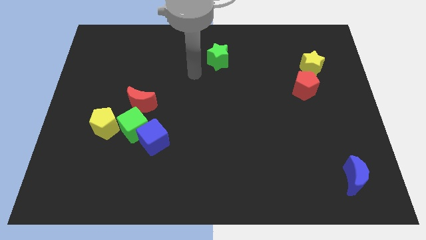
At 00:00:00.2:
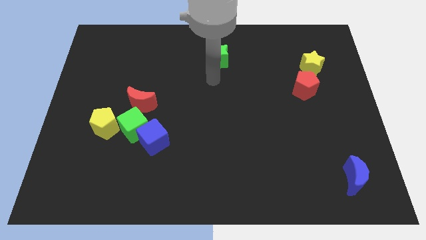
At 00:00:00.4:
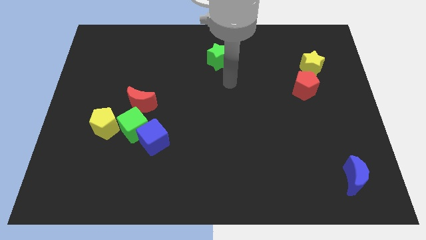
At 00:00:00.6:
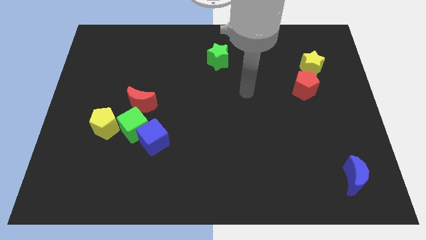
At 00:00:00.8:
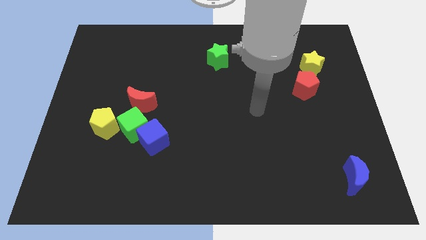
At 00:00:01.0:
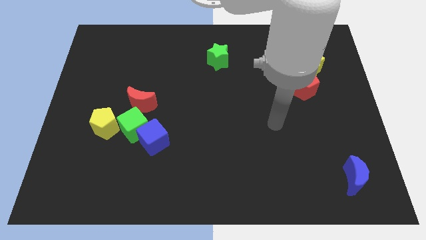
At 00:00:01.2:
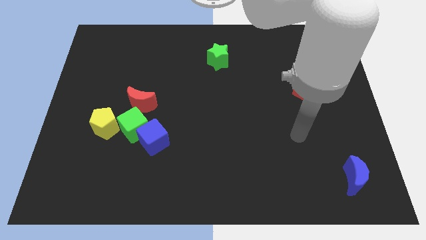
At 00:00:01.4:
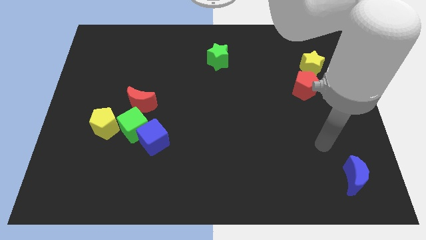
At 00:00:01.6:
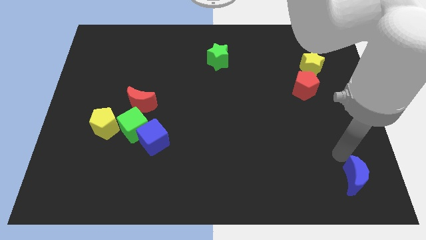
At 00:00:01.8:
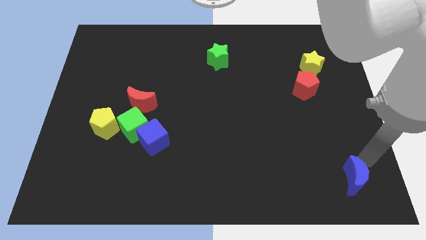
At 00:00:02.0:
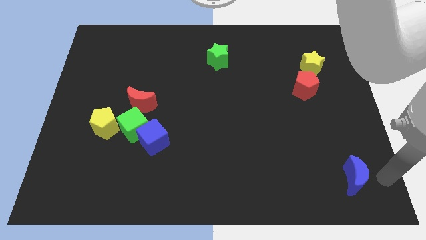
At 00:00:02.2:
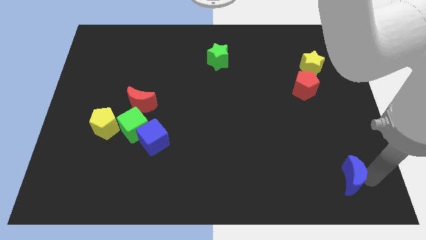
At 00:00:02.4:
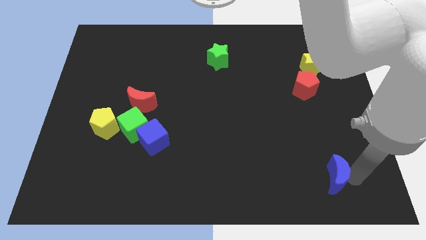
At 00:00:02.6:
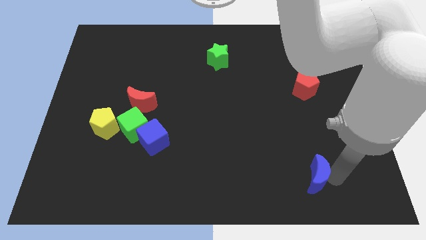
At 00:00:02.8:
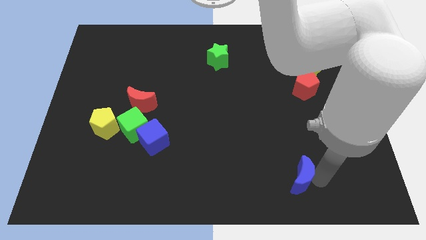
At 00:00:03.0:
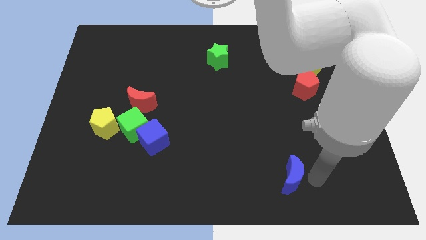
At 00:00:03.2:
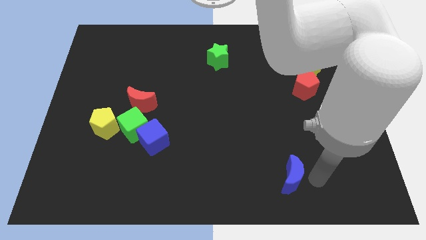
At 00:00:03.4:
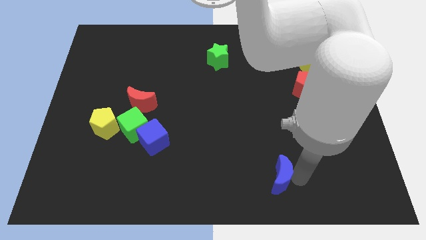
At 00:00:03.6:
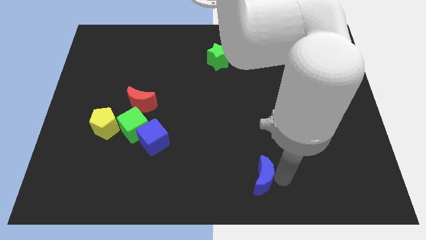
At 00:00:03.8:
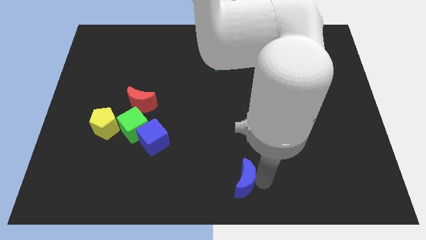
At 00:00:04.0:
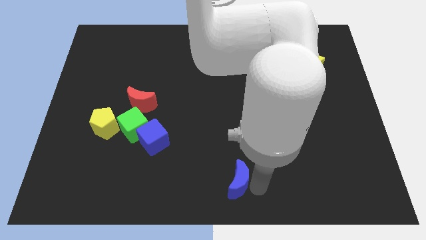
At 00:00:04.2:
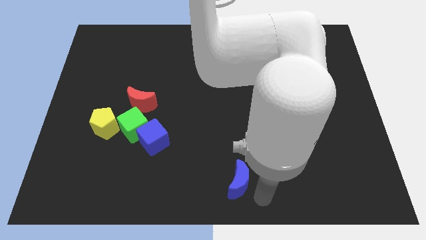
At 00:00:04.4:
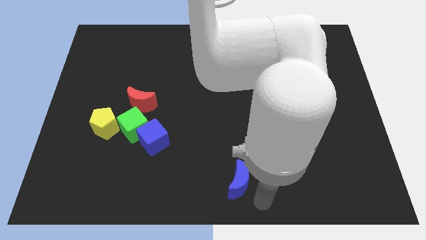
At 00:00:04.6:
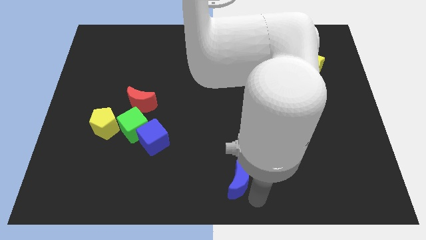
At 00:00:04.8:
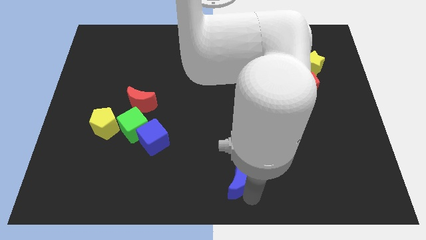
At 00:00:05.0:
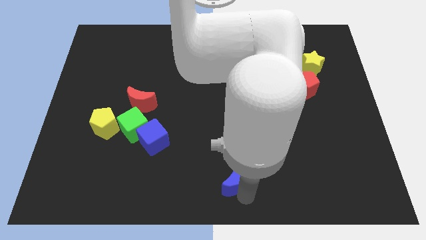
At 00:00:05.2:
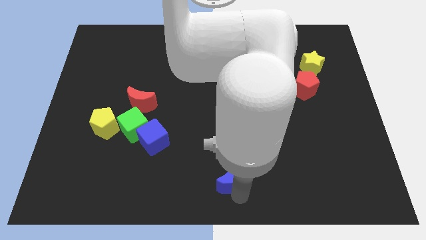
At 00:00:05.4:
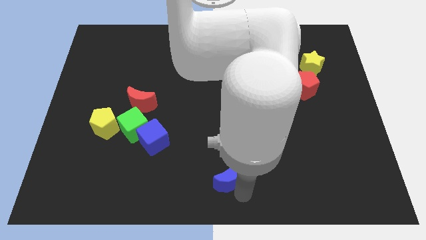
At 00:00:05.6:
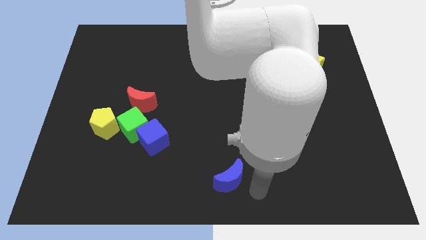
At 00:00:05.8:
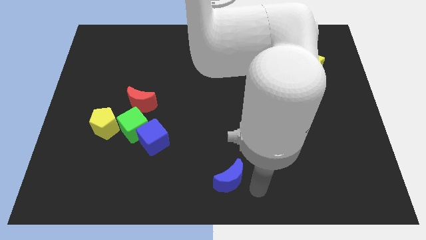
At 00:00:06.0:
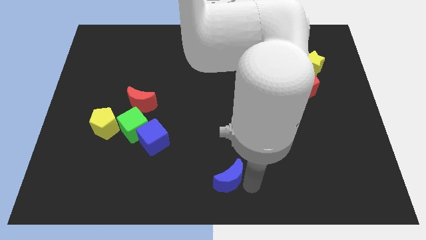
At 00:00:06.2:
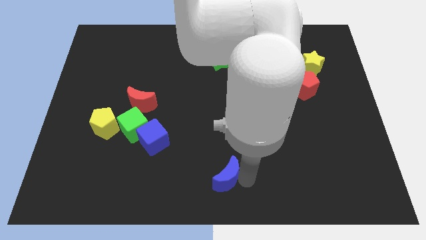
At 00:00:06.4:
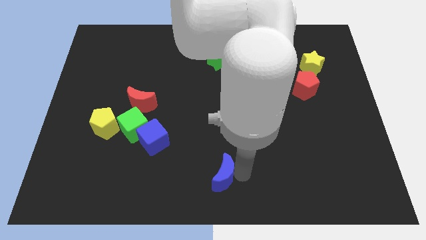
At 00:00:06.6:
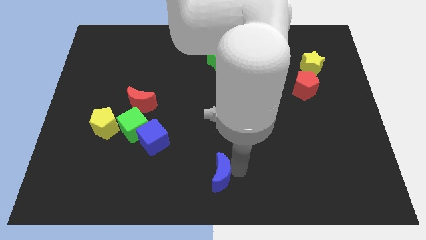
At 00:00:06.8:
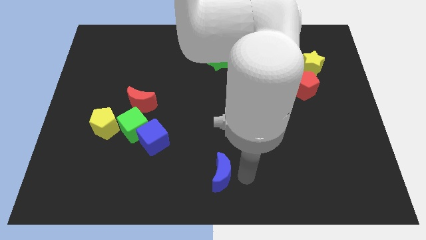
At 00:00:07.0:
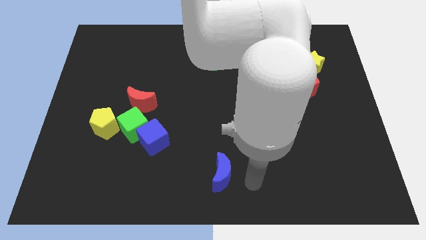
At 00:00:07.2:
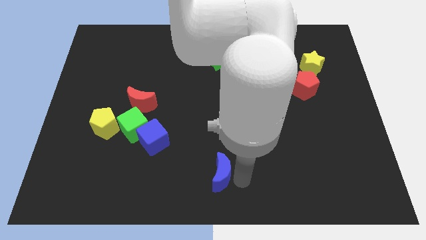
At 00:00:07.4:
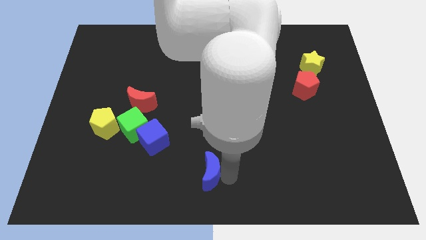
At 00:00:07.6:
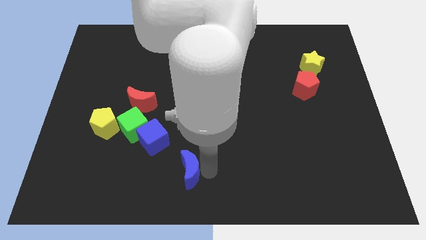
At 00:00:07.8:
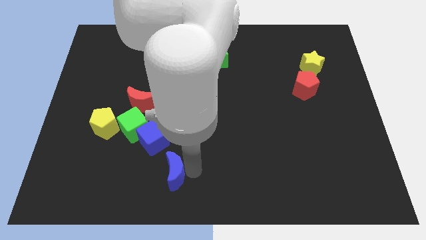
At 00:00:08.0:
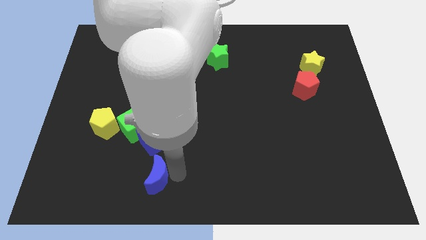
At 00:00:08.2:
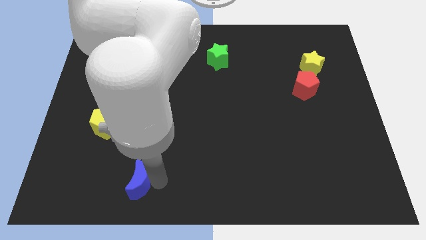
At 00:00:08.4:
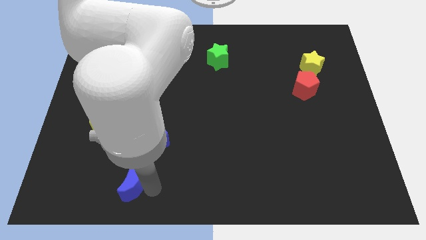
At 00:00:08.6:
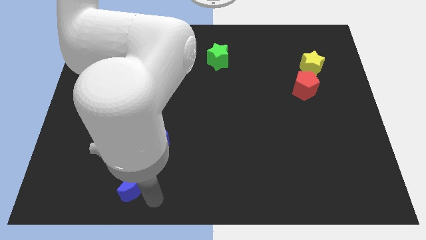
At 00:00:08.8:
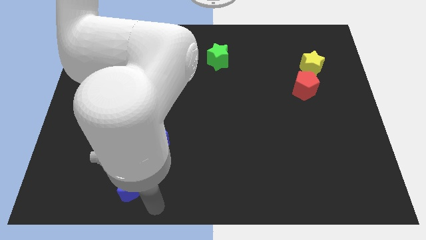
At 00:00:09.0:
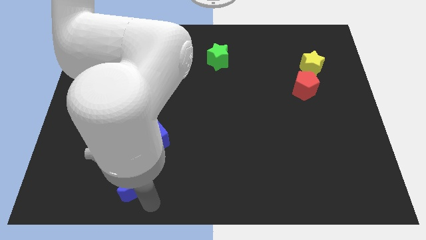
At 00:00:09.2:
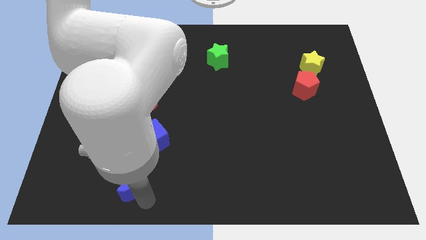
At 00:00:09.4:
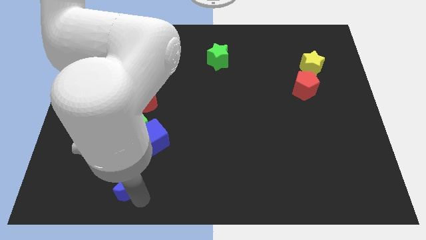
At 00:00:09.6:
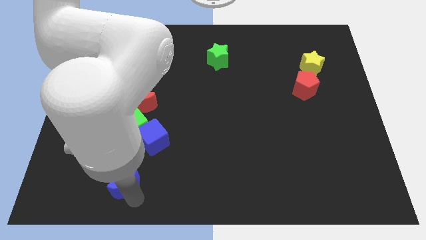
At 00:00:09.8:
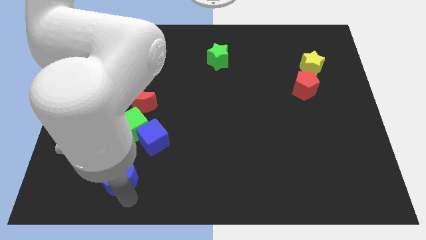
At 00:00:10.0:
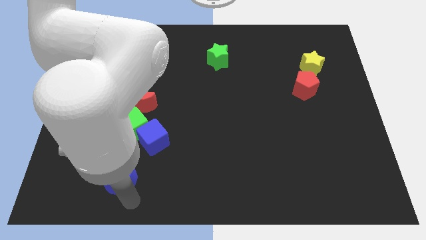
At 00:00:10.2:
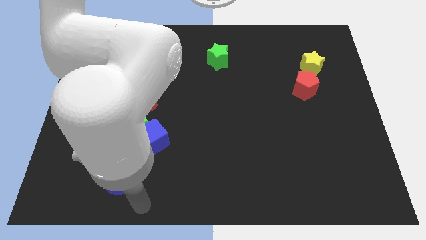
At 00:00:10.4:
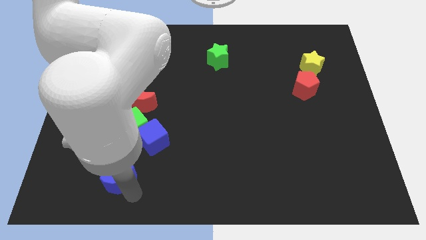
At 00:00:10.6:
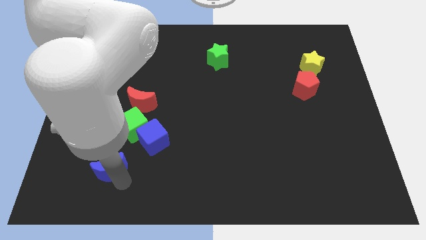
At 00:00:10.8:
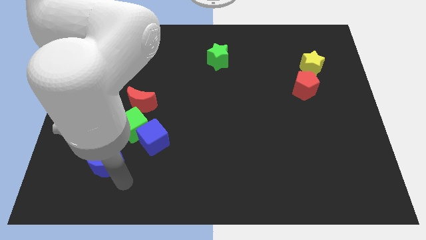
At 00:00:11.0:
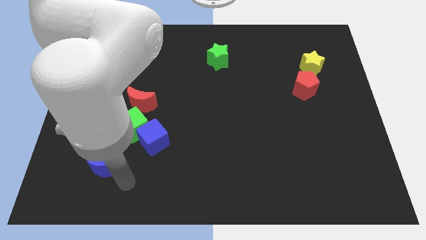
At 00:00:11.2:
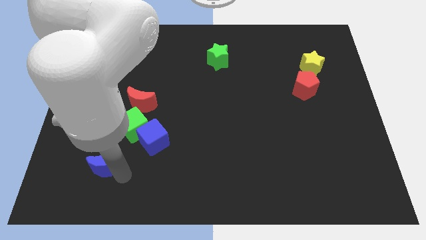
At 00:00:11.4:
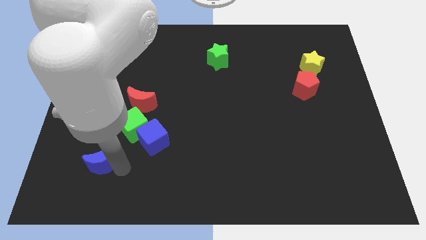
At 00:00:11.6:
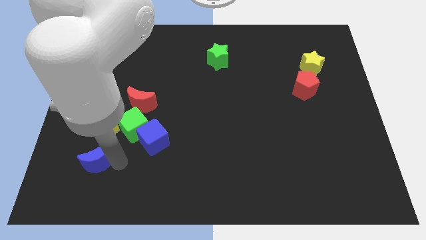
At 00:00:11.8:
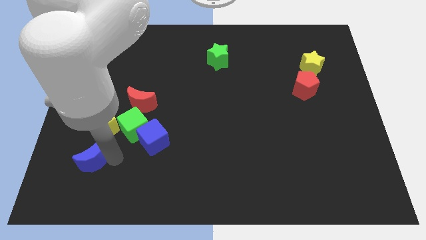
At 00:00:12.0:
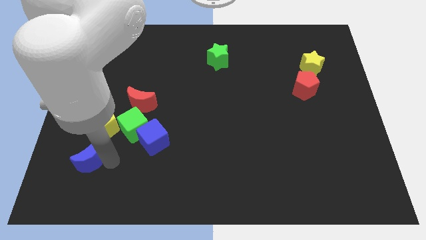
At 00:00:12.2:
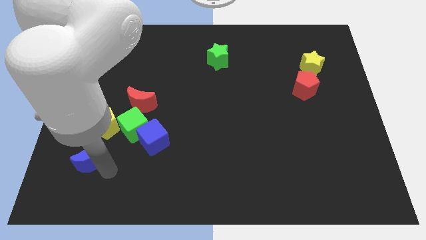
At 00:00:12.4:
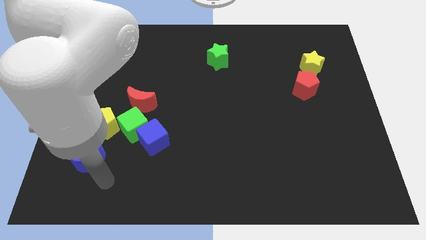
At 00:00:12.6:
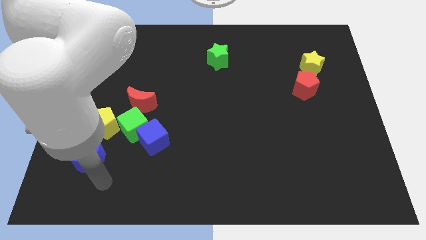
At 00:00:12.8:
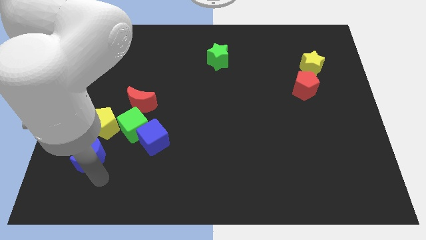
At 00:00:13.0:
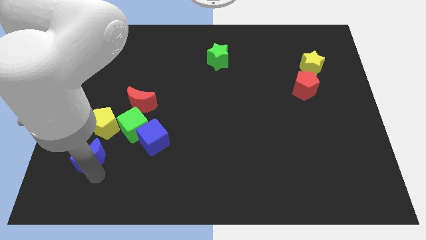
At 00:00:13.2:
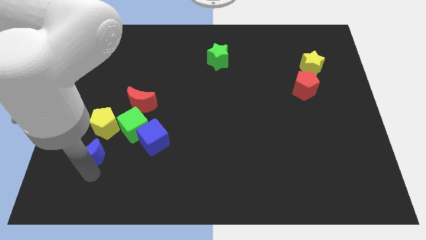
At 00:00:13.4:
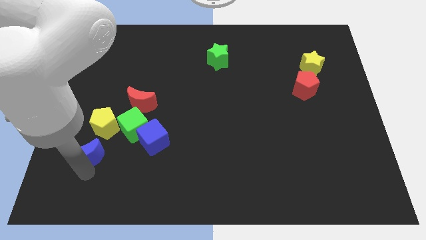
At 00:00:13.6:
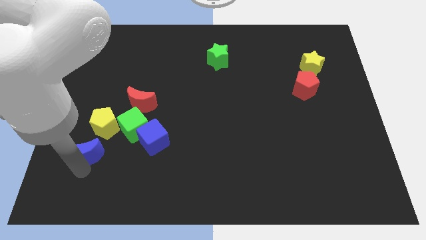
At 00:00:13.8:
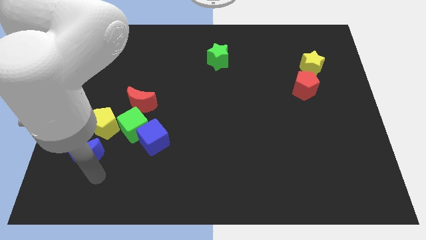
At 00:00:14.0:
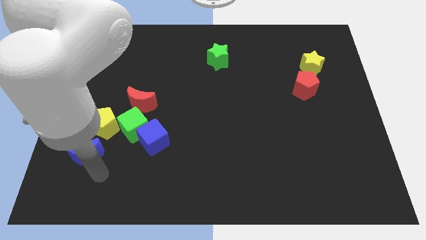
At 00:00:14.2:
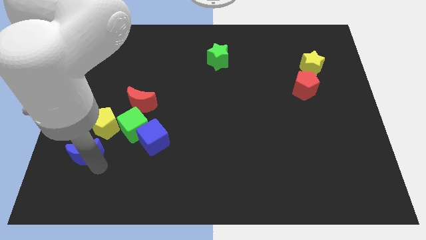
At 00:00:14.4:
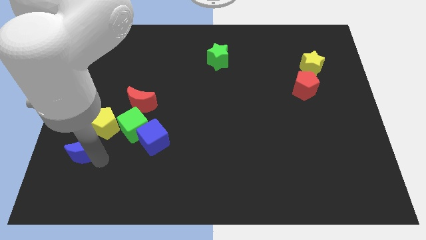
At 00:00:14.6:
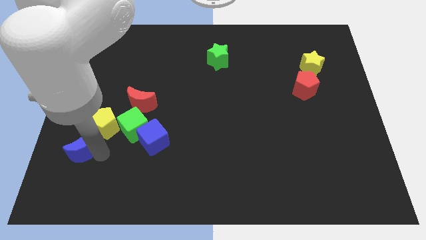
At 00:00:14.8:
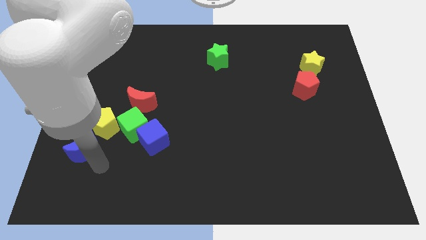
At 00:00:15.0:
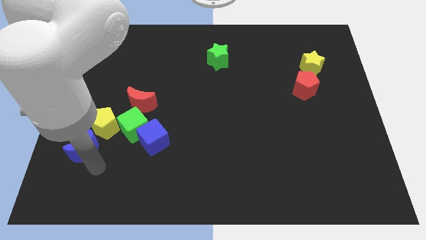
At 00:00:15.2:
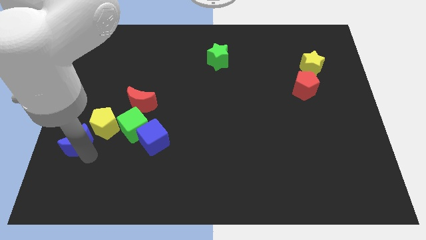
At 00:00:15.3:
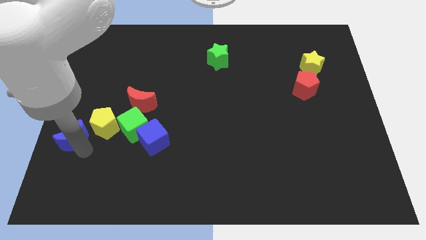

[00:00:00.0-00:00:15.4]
slide the blue moon to the left side of the board

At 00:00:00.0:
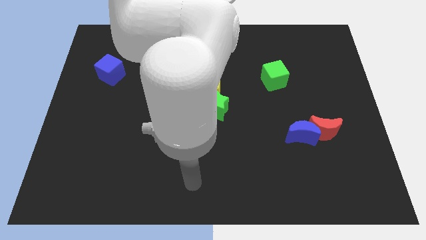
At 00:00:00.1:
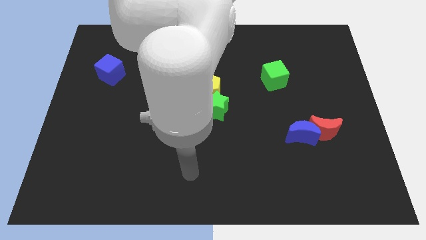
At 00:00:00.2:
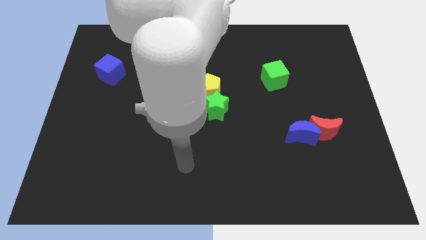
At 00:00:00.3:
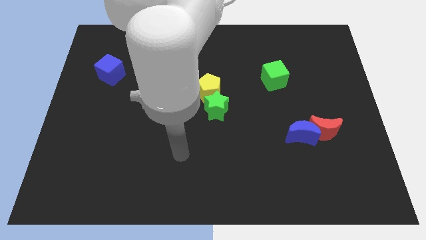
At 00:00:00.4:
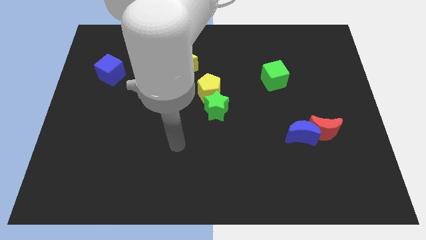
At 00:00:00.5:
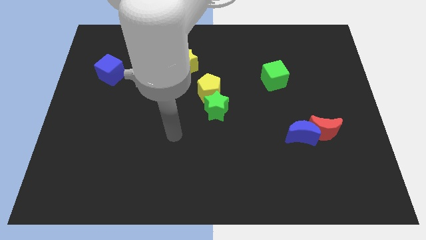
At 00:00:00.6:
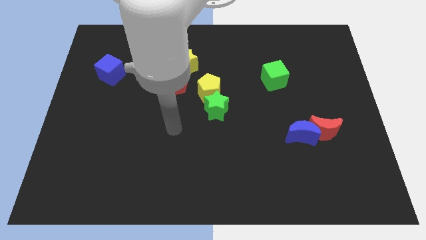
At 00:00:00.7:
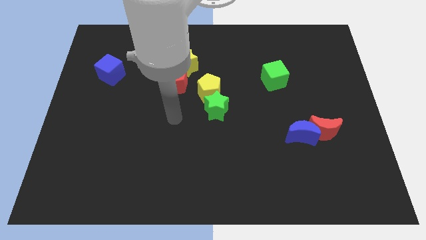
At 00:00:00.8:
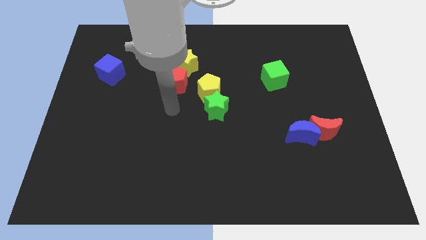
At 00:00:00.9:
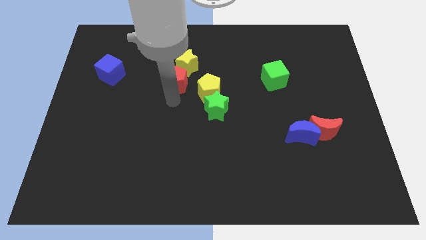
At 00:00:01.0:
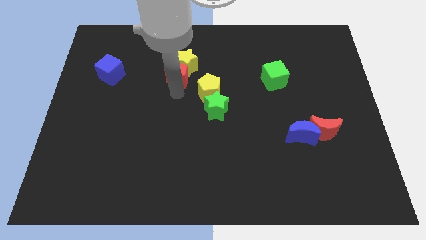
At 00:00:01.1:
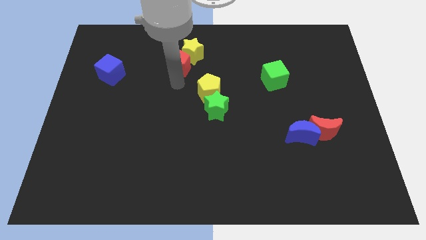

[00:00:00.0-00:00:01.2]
push the yellow star to the top
